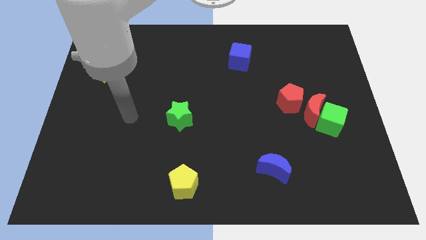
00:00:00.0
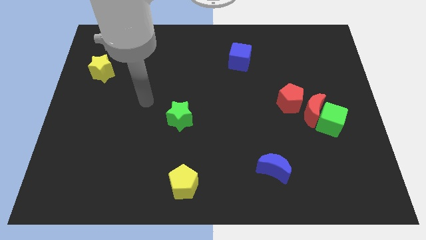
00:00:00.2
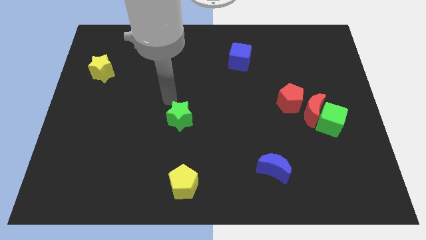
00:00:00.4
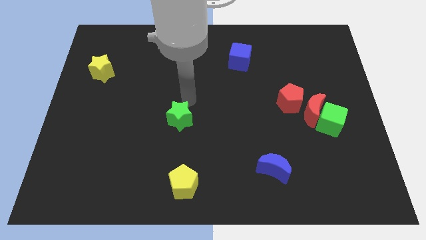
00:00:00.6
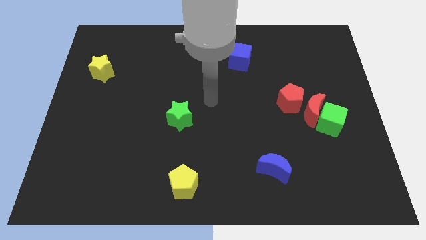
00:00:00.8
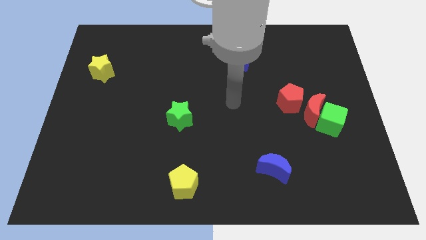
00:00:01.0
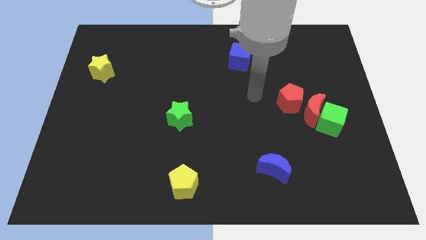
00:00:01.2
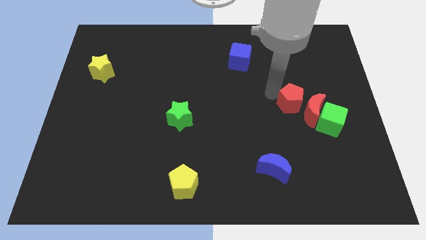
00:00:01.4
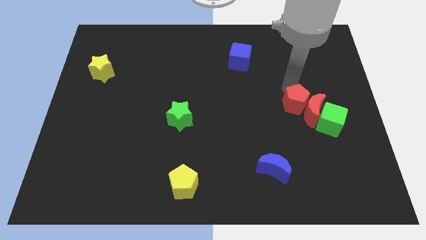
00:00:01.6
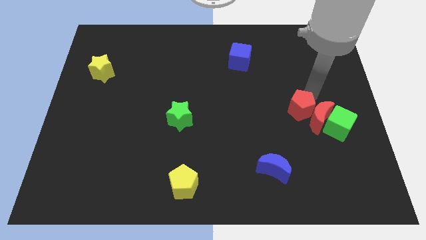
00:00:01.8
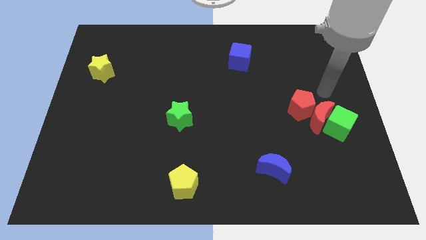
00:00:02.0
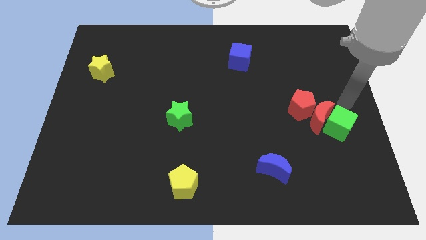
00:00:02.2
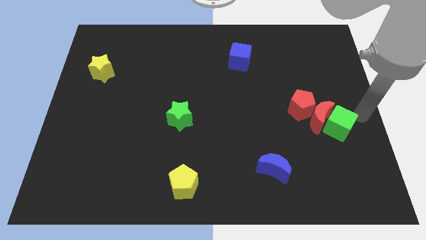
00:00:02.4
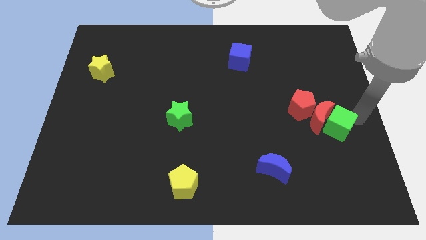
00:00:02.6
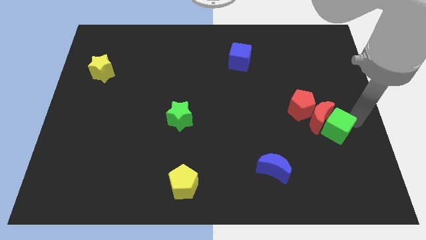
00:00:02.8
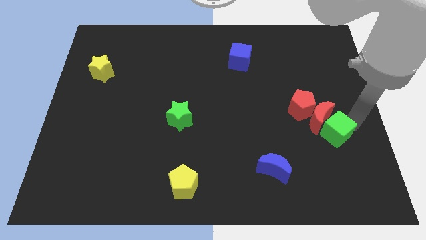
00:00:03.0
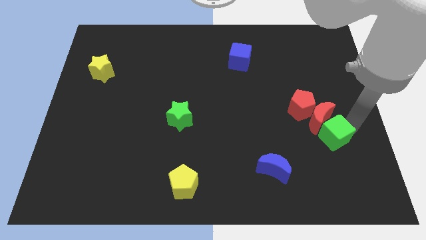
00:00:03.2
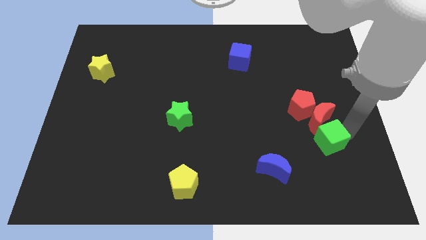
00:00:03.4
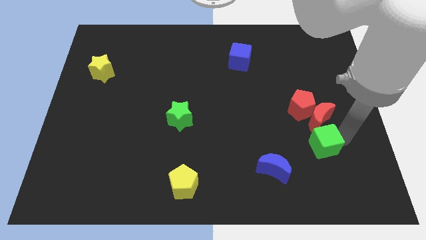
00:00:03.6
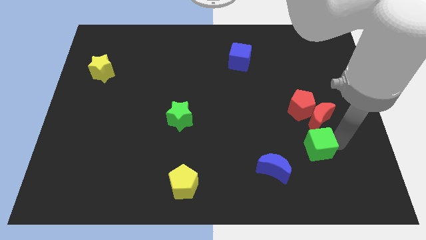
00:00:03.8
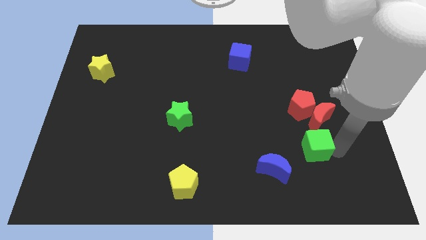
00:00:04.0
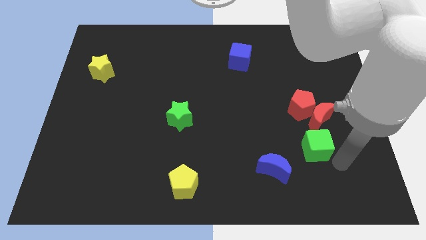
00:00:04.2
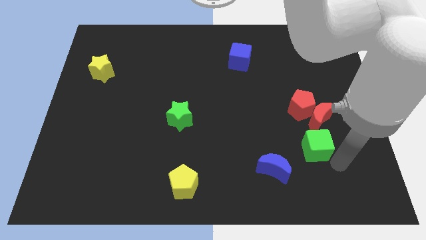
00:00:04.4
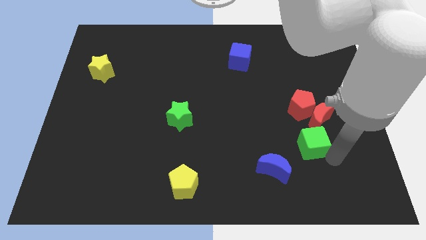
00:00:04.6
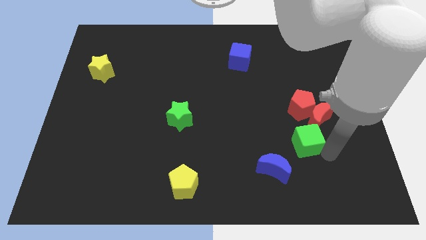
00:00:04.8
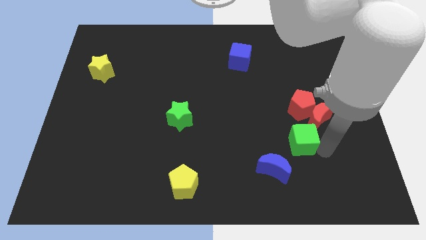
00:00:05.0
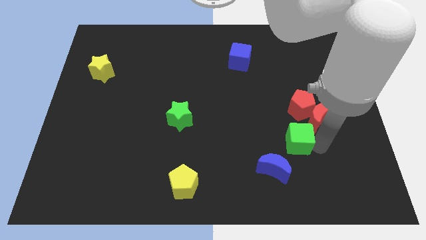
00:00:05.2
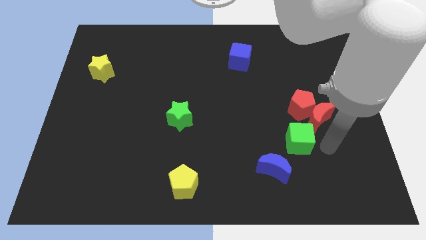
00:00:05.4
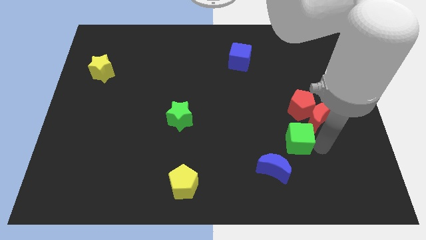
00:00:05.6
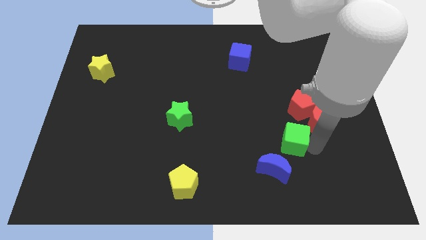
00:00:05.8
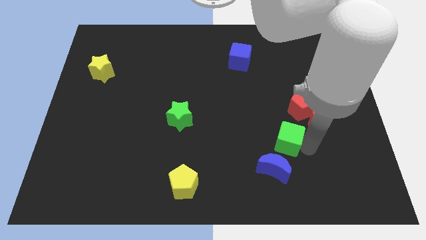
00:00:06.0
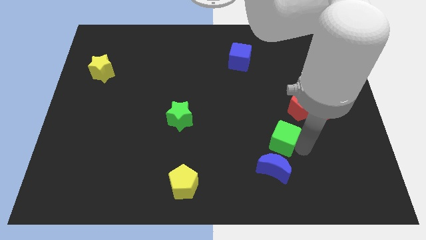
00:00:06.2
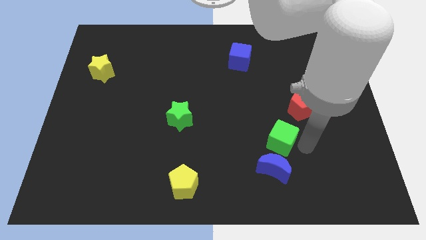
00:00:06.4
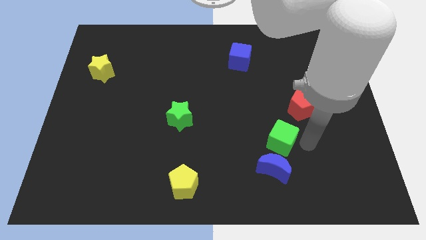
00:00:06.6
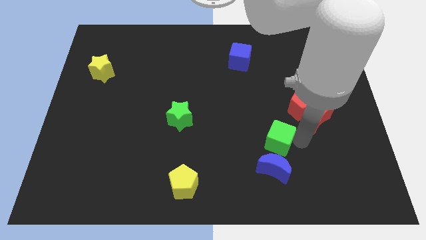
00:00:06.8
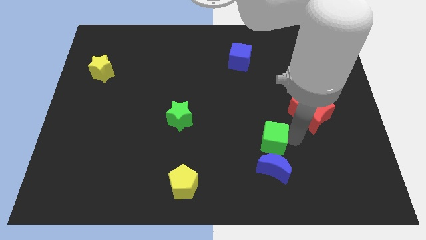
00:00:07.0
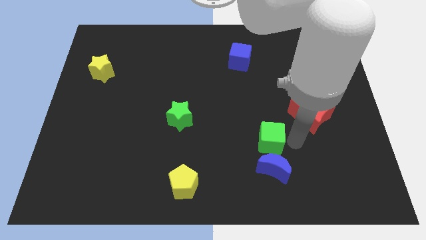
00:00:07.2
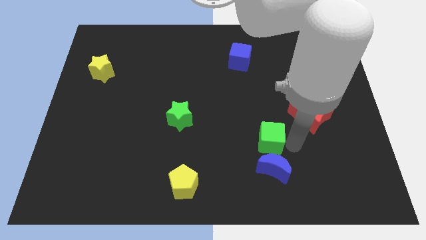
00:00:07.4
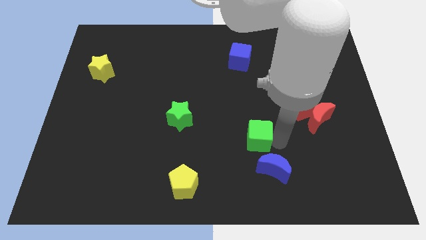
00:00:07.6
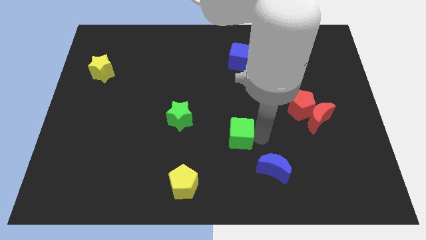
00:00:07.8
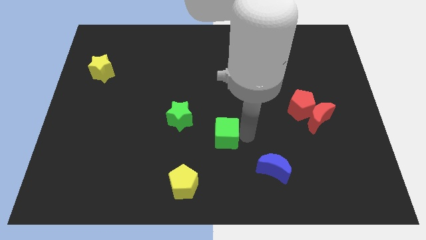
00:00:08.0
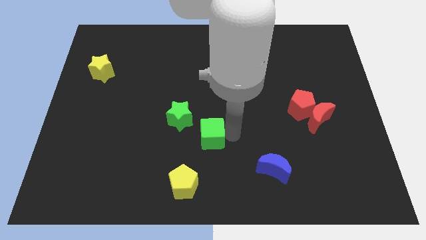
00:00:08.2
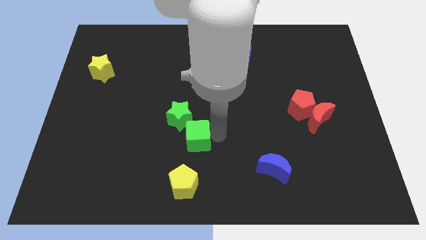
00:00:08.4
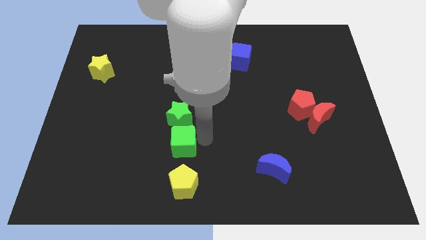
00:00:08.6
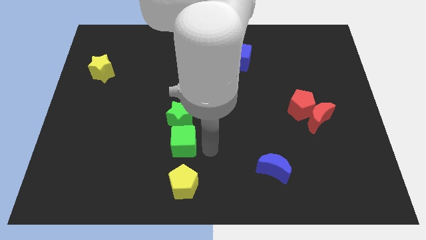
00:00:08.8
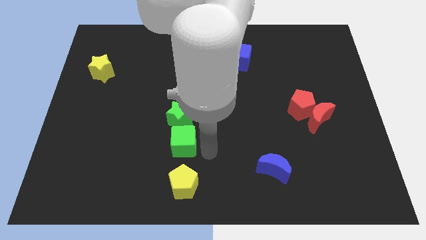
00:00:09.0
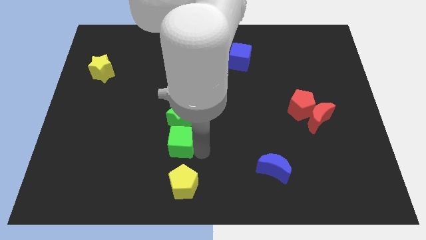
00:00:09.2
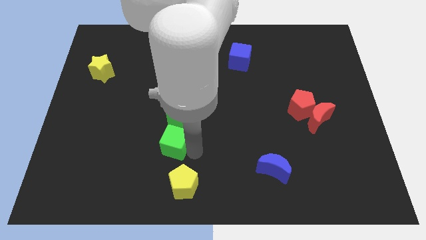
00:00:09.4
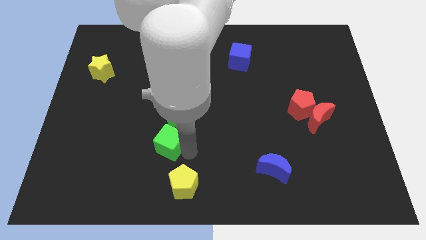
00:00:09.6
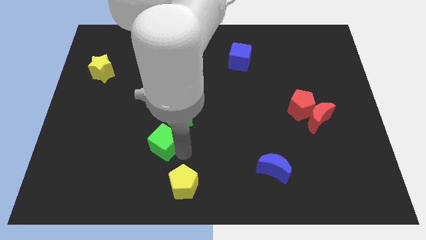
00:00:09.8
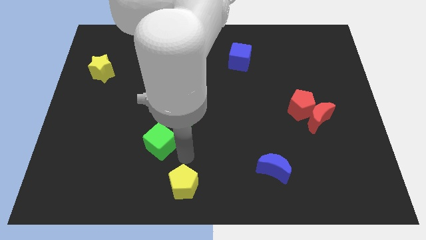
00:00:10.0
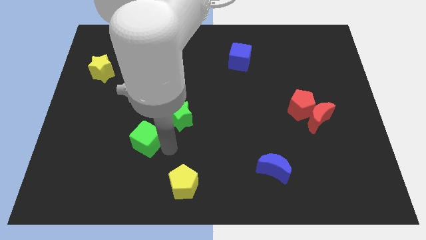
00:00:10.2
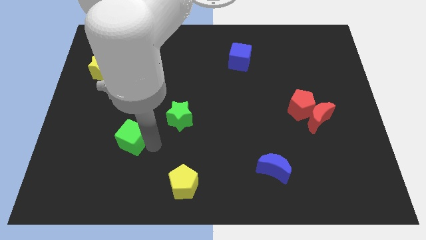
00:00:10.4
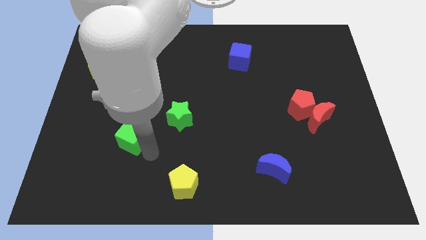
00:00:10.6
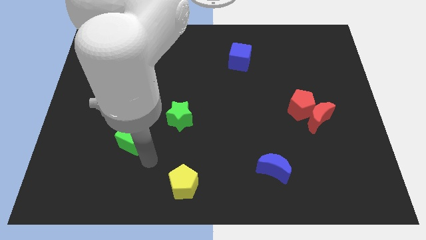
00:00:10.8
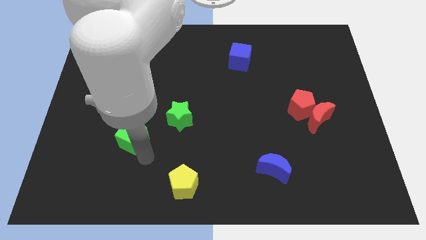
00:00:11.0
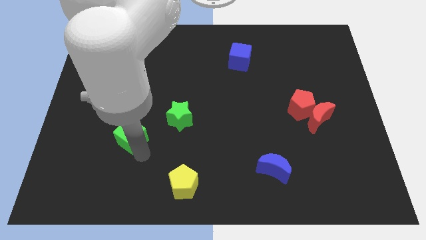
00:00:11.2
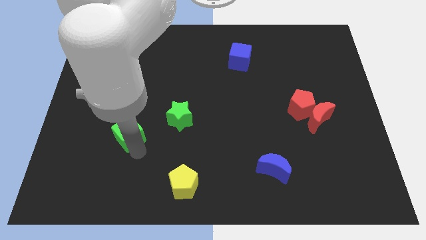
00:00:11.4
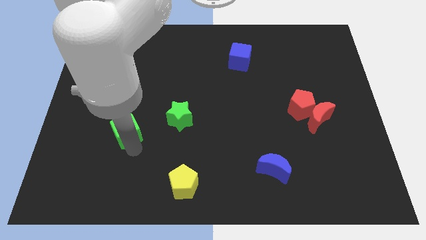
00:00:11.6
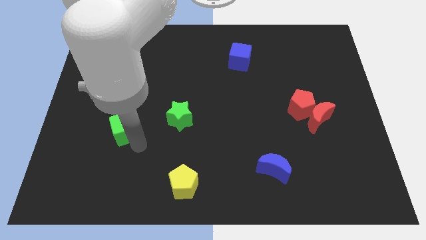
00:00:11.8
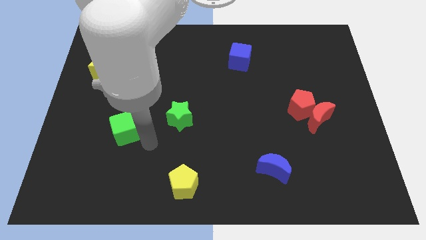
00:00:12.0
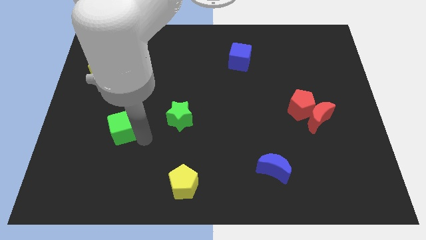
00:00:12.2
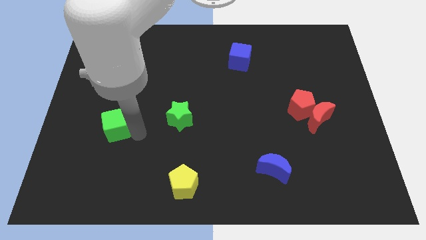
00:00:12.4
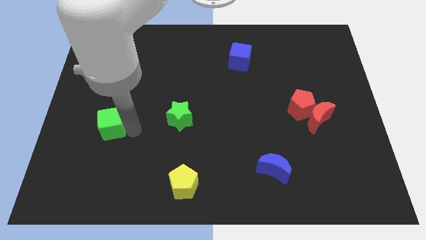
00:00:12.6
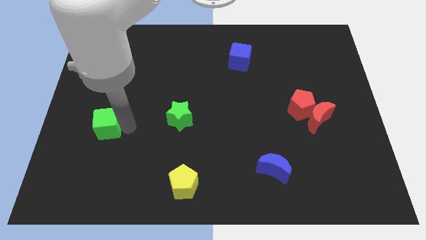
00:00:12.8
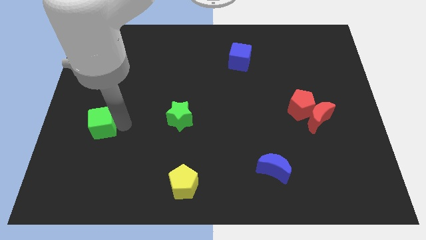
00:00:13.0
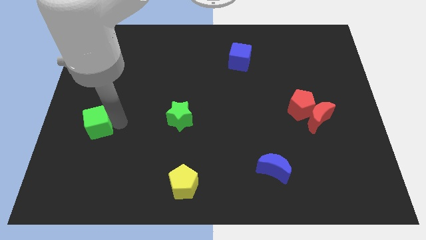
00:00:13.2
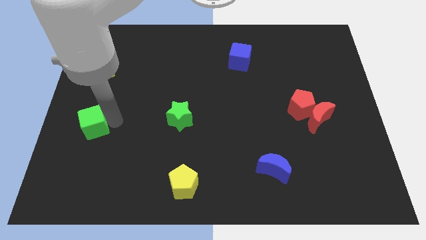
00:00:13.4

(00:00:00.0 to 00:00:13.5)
slide the green cube to the center left
